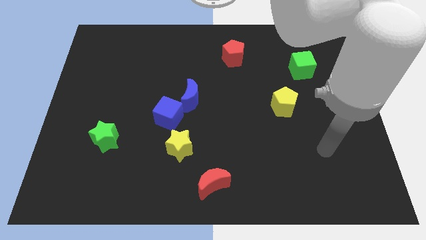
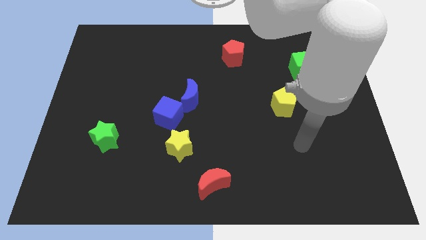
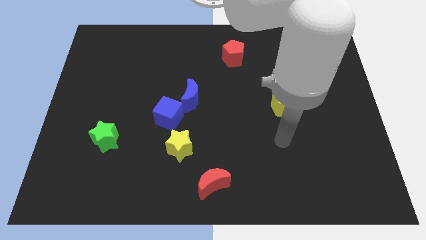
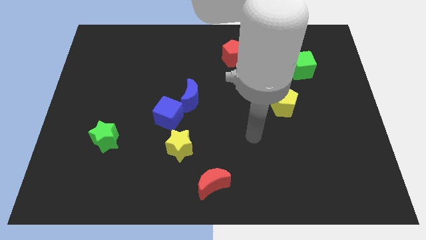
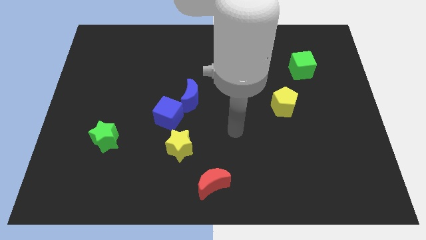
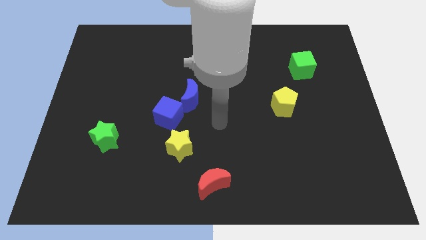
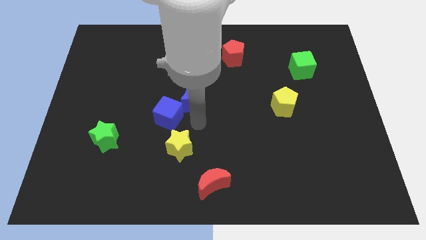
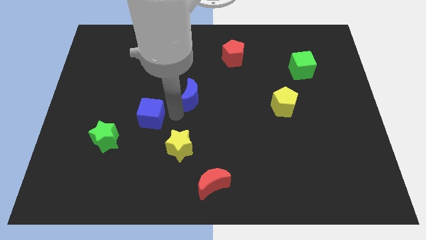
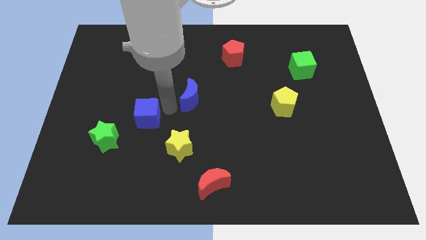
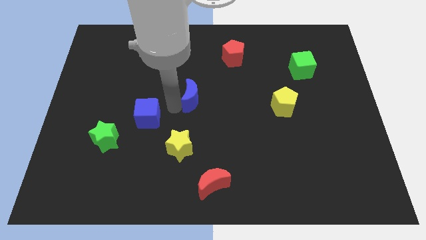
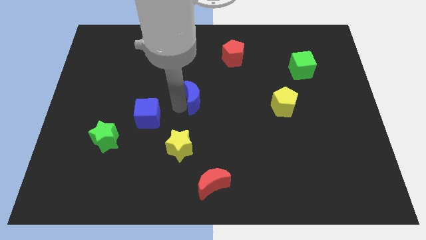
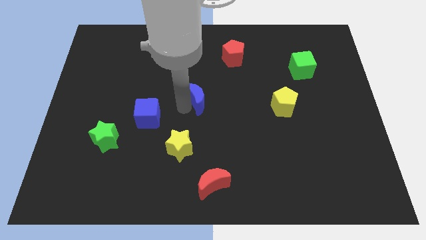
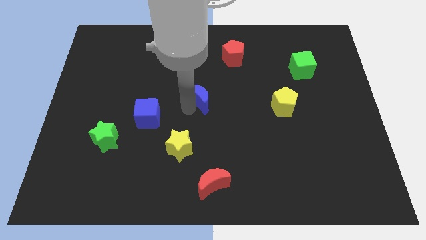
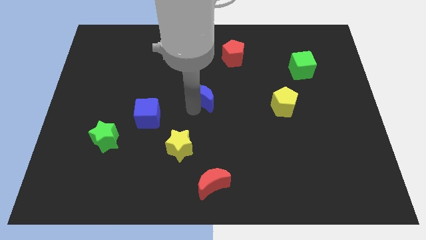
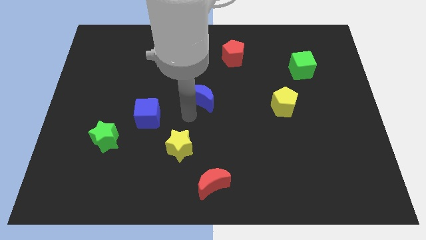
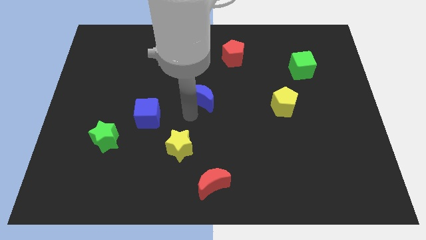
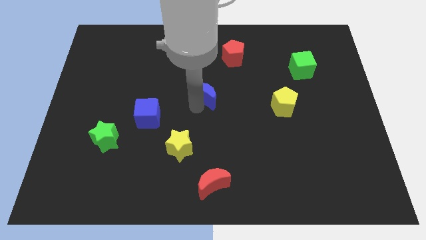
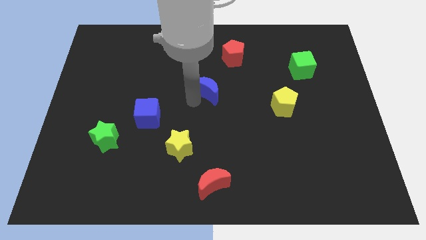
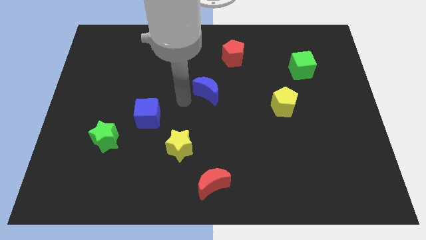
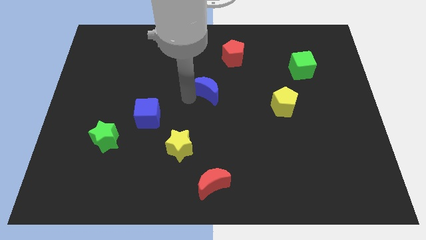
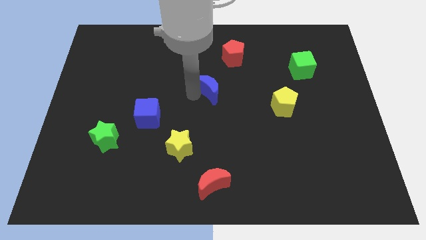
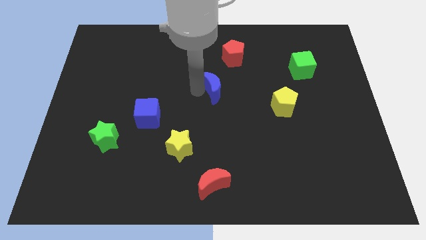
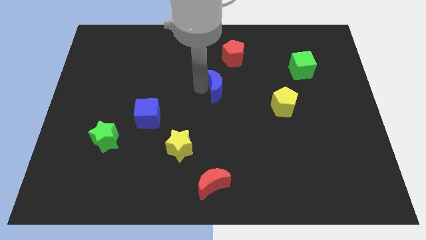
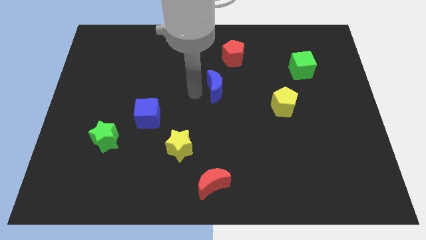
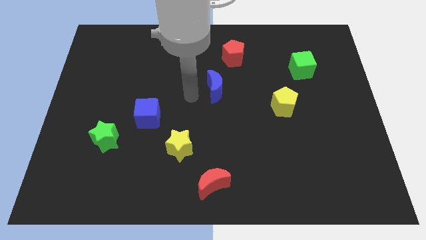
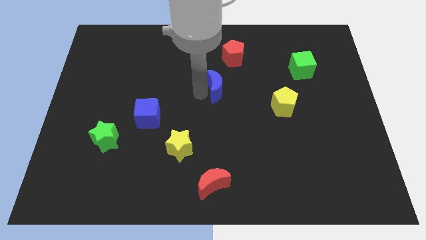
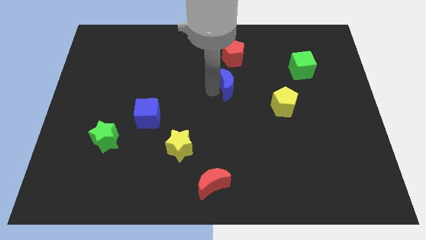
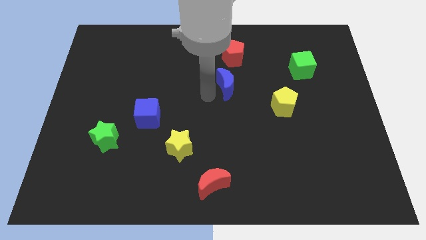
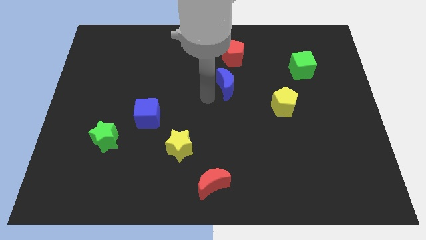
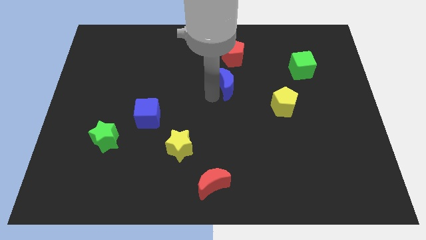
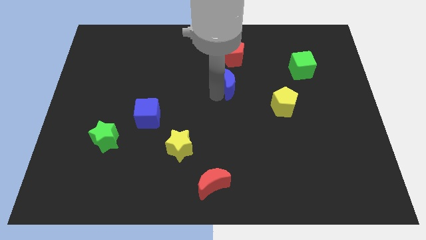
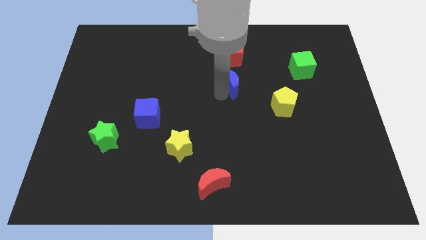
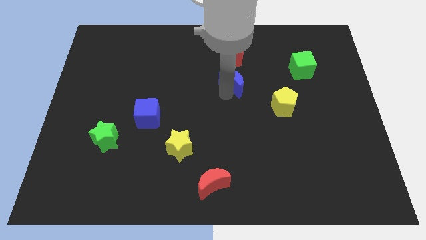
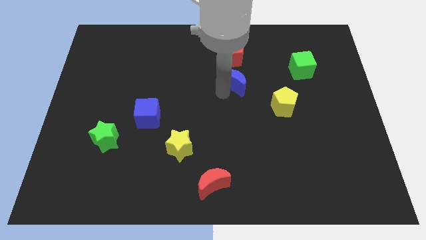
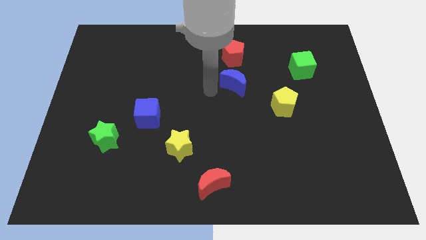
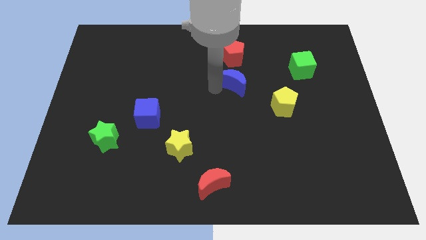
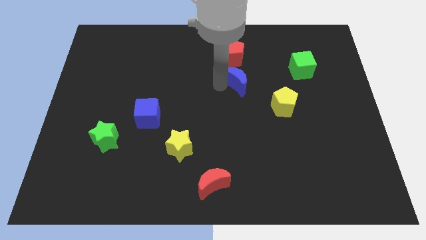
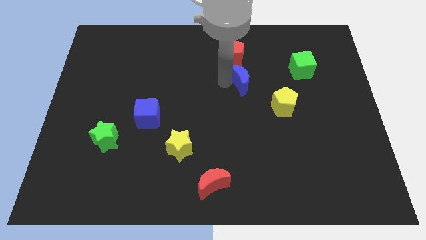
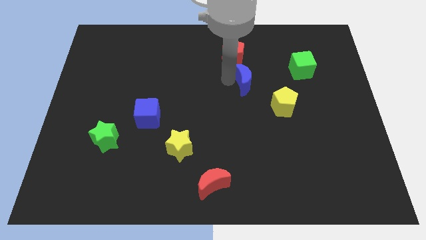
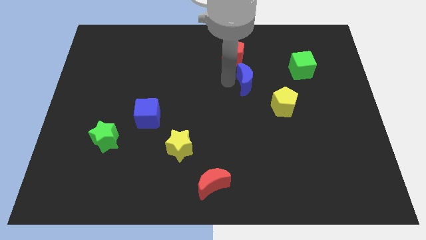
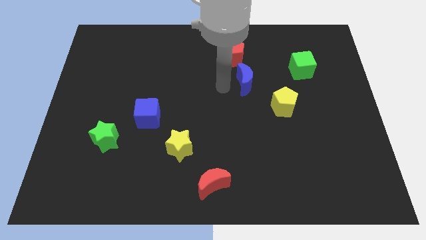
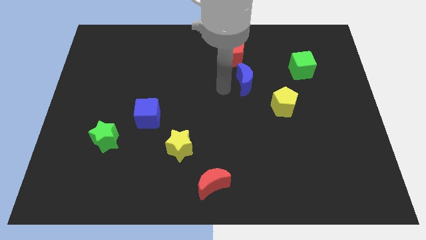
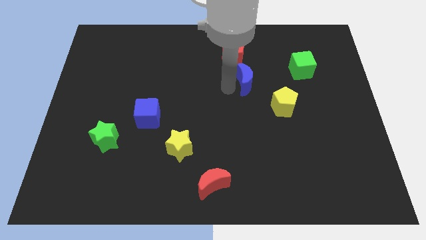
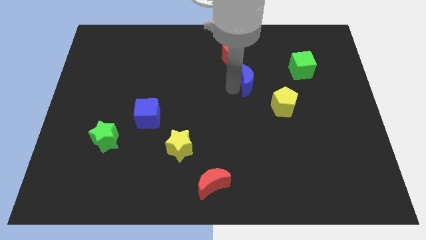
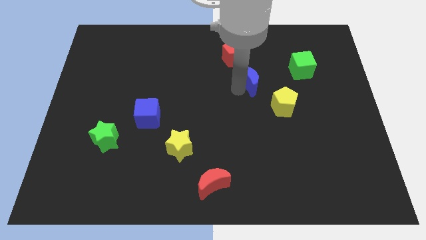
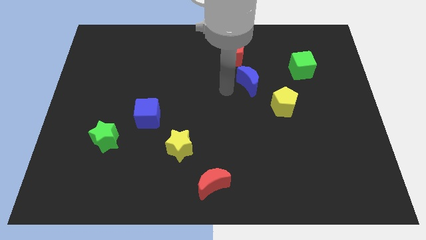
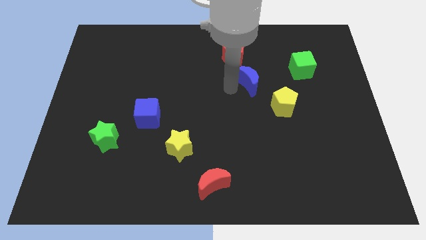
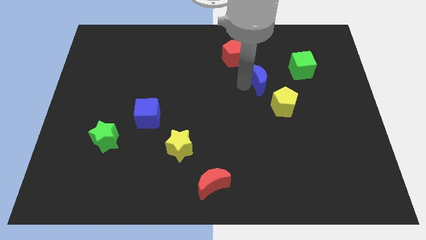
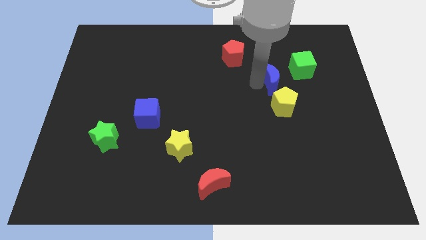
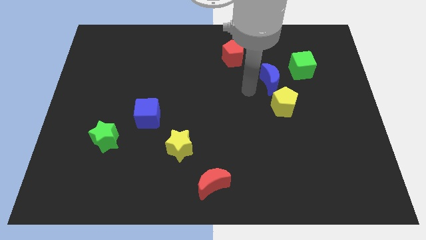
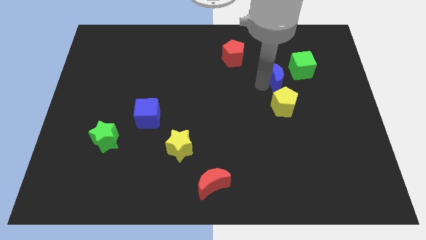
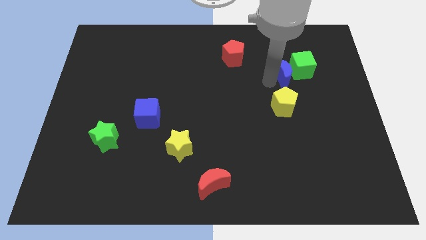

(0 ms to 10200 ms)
move the blue moon towards the green cube

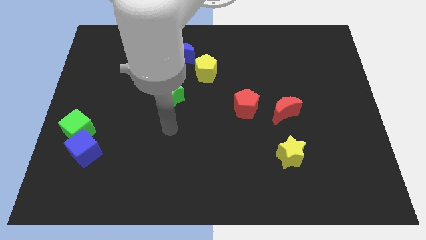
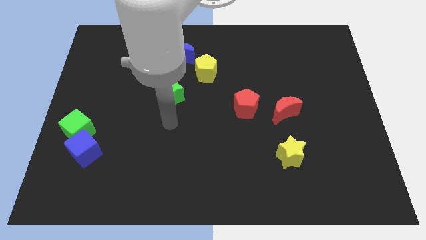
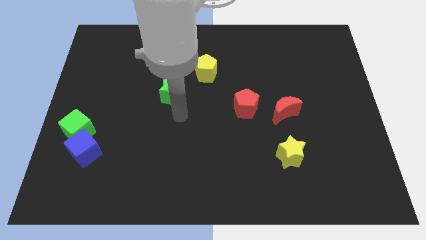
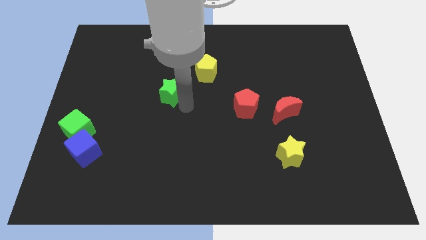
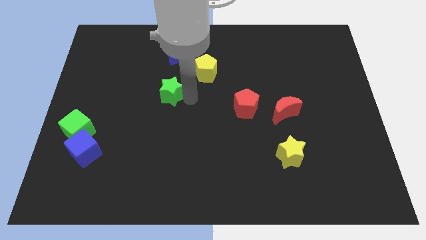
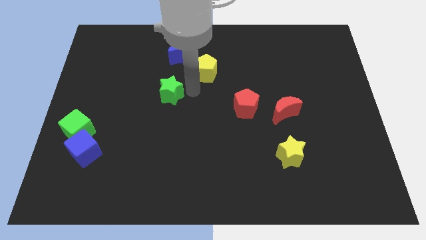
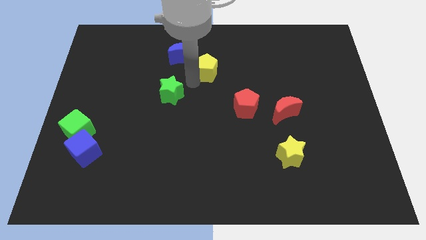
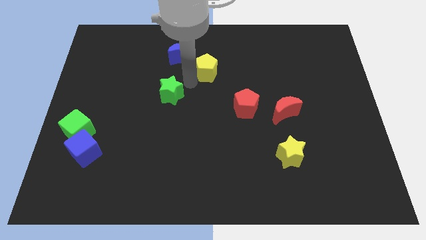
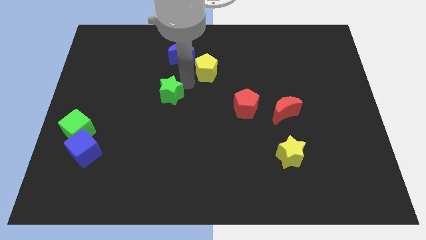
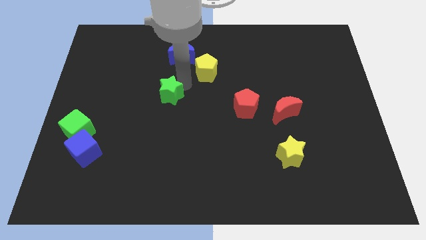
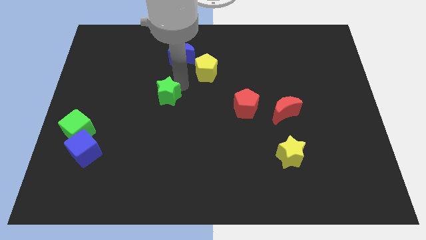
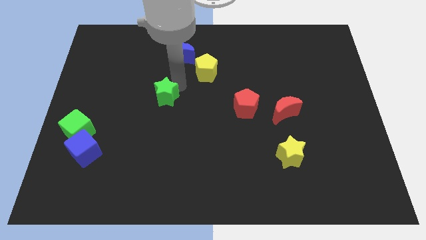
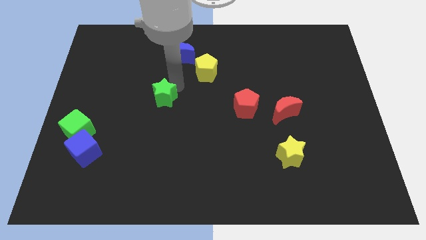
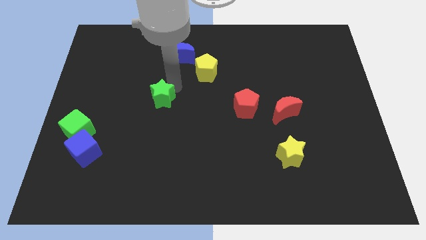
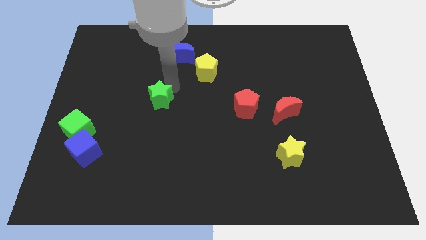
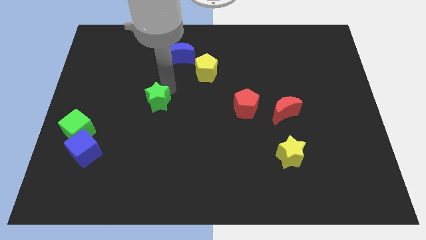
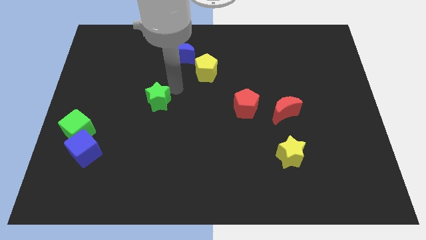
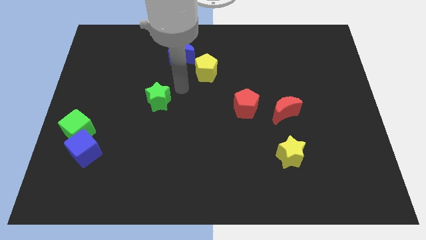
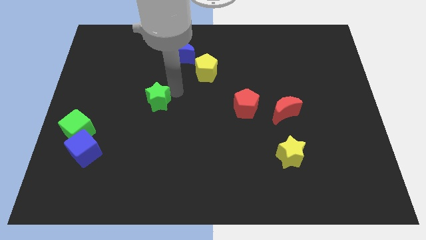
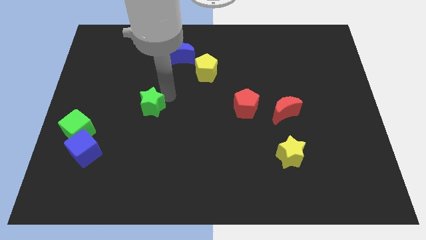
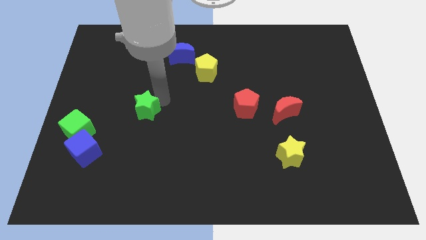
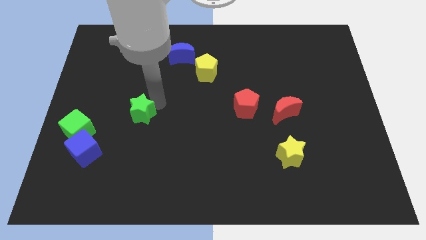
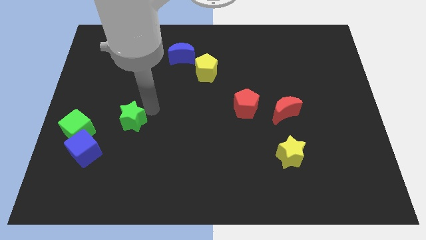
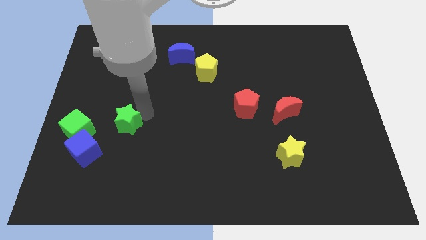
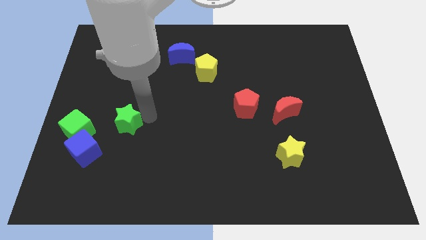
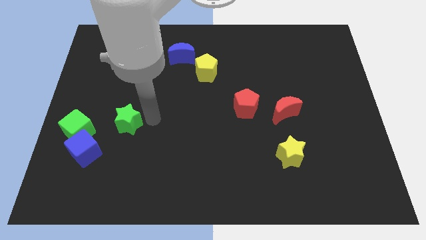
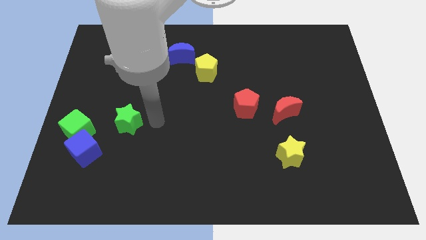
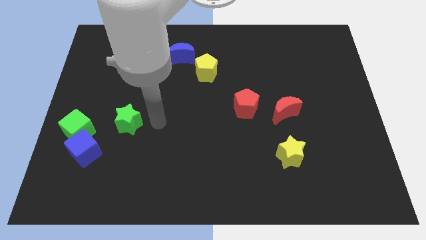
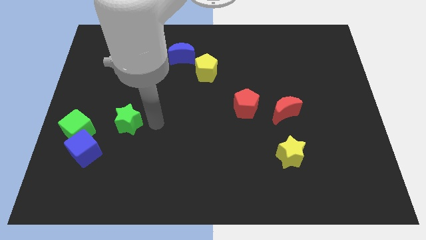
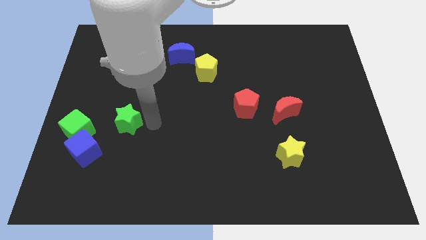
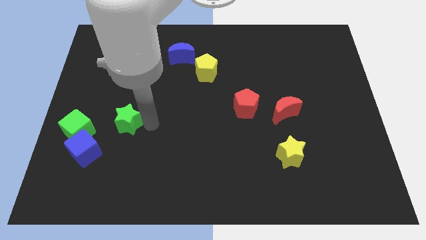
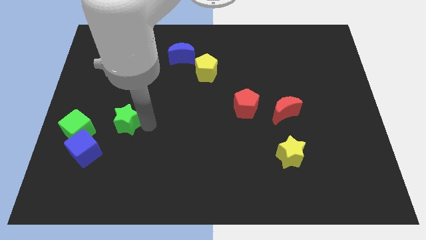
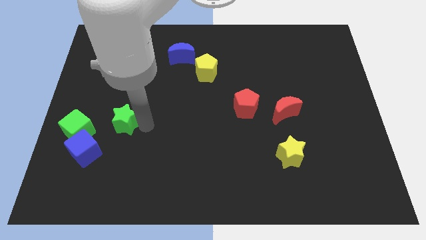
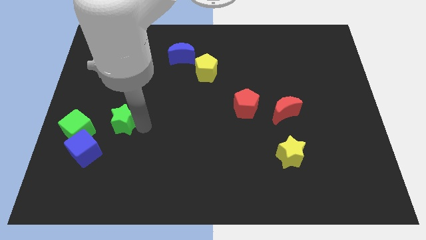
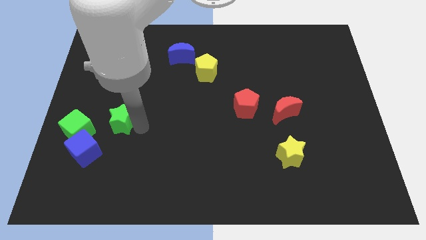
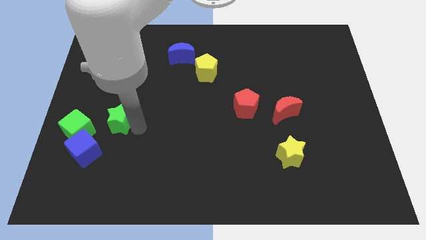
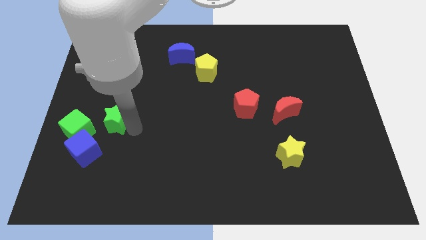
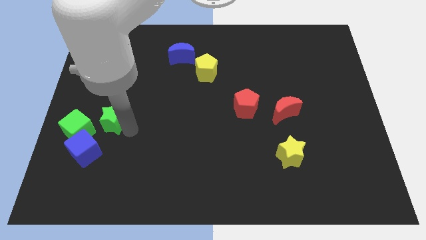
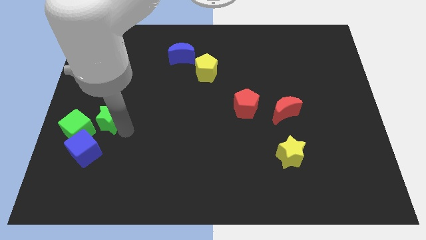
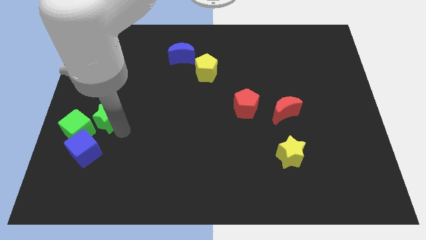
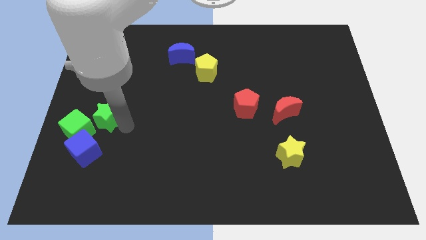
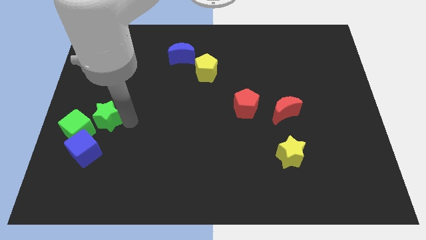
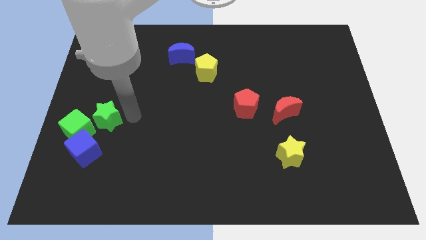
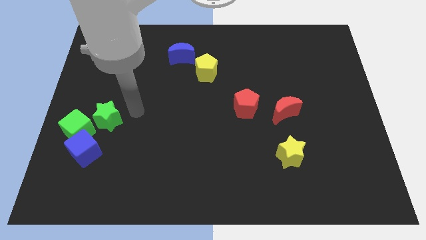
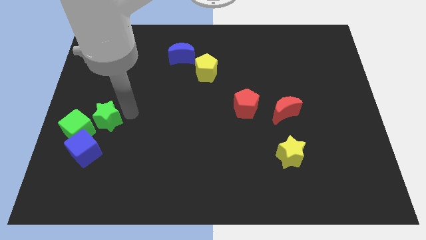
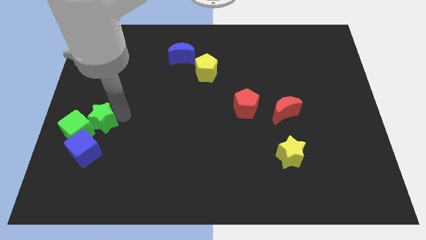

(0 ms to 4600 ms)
slide the green star to the green cube
